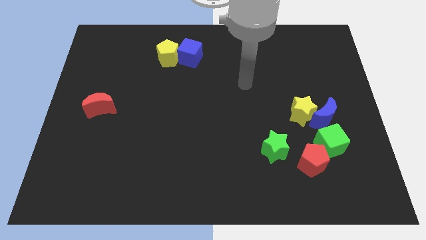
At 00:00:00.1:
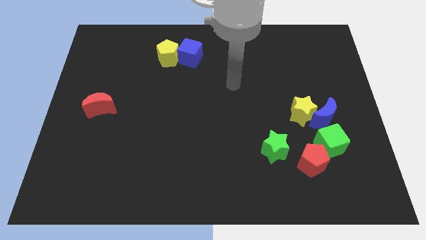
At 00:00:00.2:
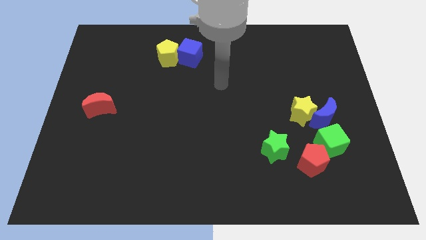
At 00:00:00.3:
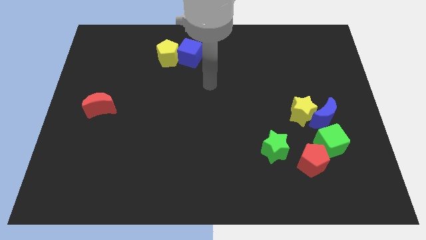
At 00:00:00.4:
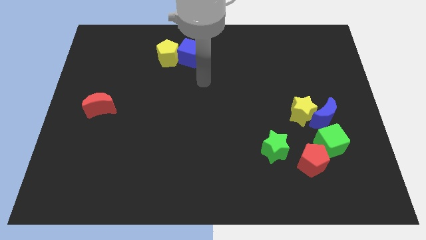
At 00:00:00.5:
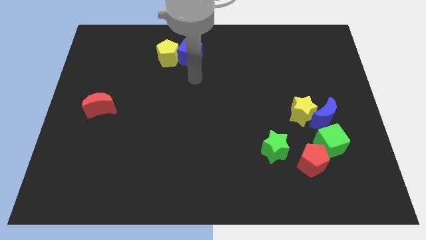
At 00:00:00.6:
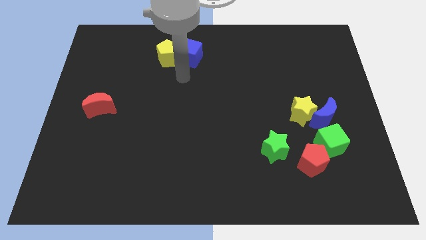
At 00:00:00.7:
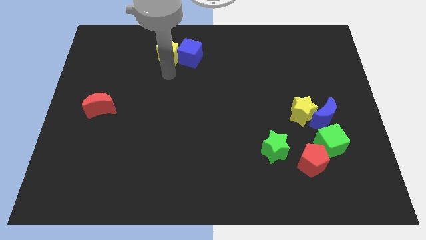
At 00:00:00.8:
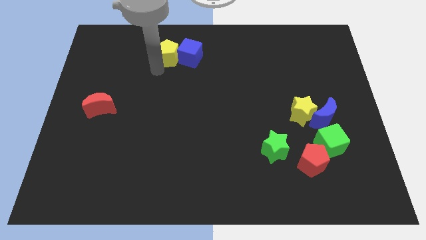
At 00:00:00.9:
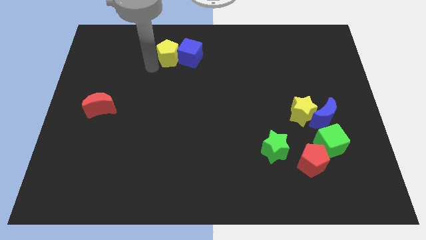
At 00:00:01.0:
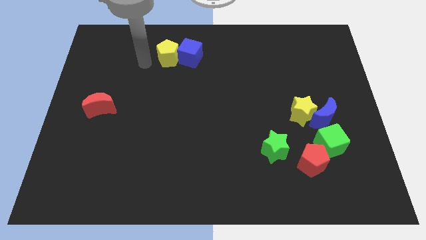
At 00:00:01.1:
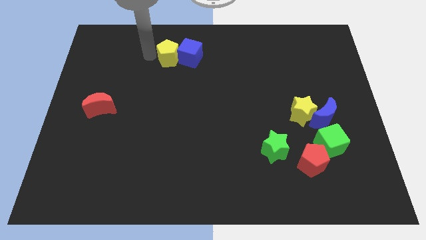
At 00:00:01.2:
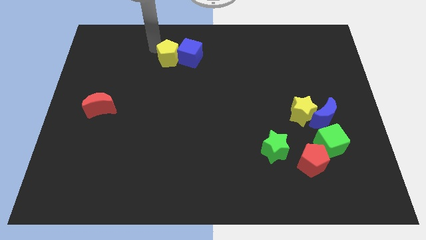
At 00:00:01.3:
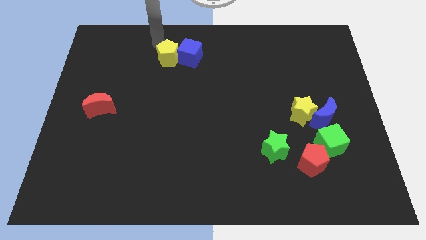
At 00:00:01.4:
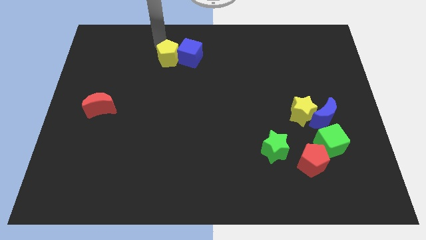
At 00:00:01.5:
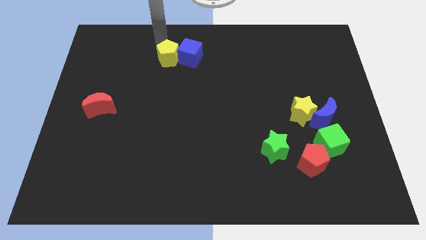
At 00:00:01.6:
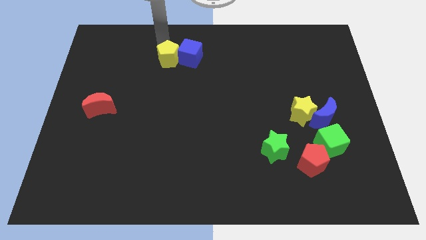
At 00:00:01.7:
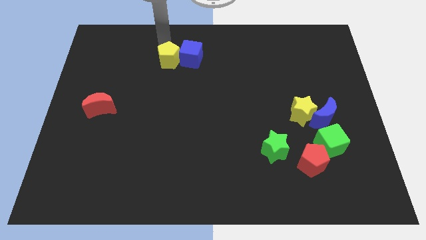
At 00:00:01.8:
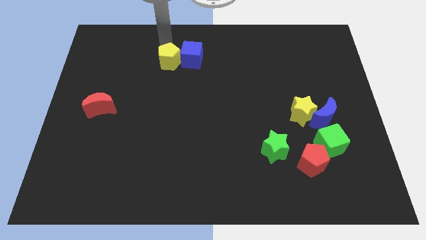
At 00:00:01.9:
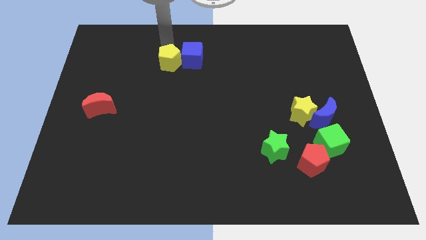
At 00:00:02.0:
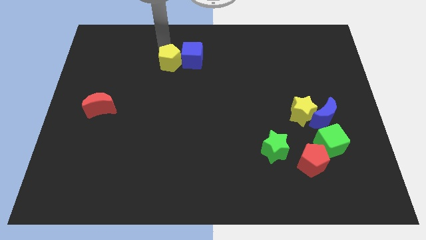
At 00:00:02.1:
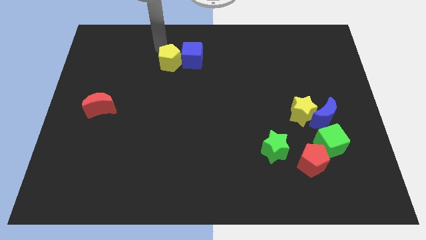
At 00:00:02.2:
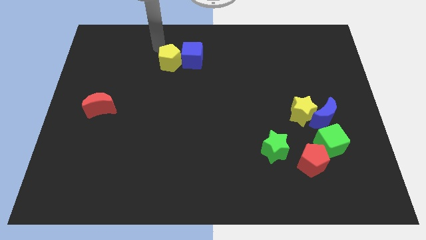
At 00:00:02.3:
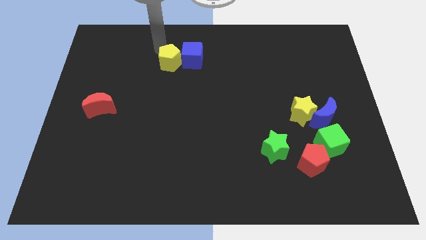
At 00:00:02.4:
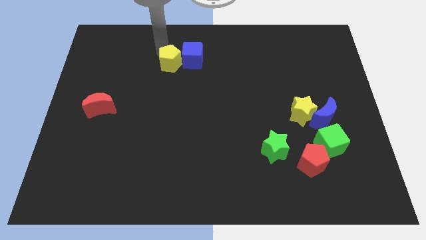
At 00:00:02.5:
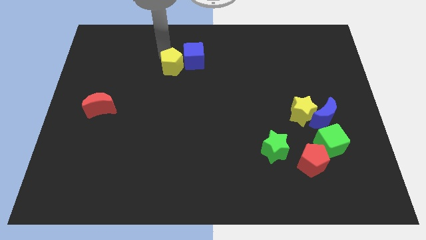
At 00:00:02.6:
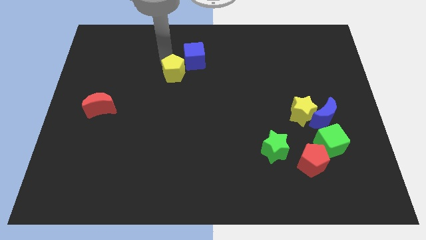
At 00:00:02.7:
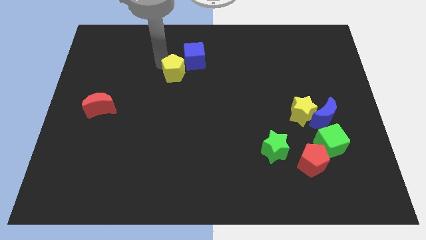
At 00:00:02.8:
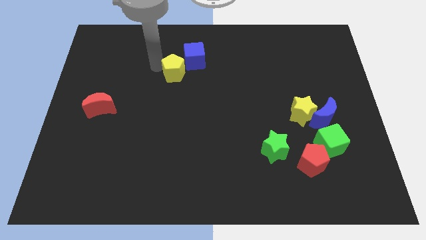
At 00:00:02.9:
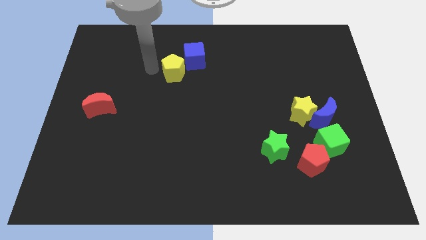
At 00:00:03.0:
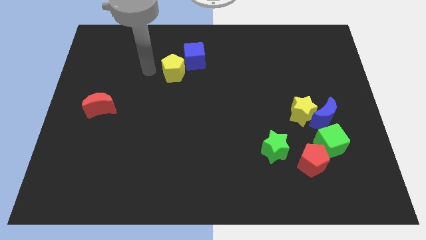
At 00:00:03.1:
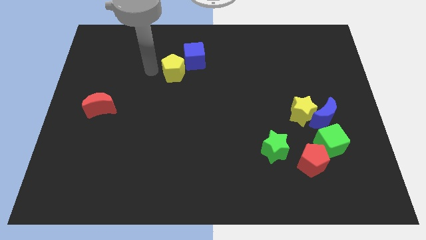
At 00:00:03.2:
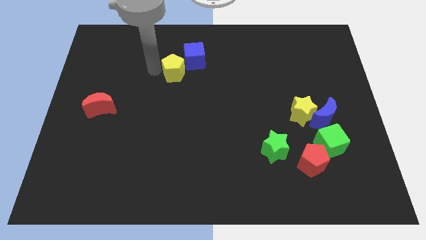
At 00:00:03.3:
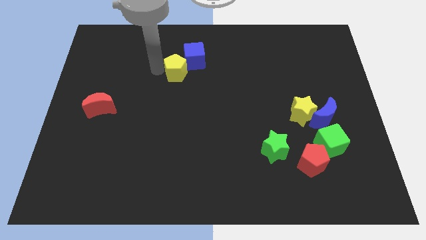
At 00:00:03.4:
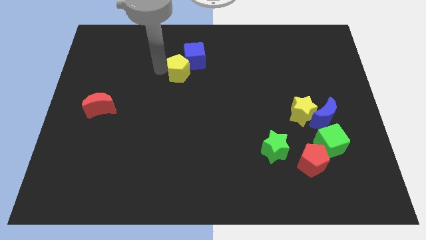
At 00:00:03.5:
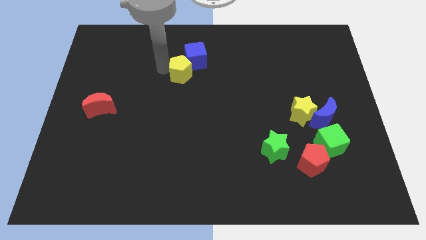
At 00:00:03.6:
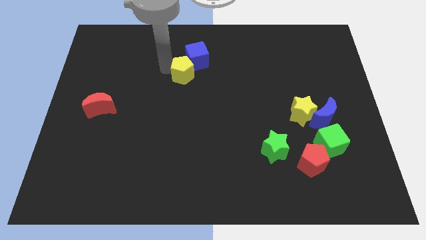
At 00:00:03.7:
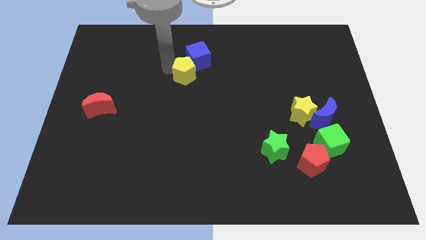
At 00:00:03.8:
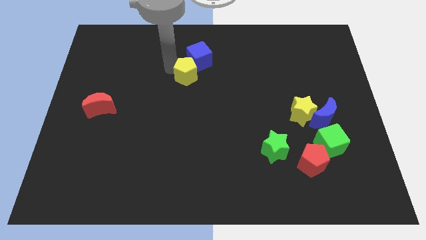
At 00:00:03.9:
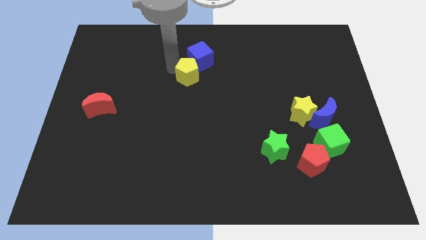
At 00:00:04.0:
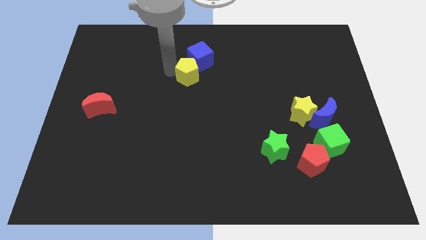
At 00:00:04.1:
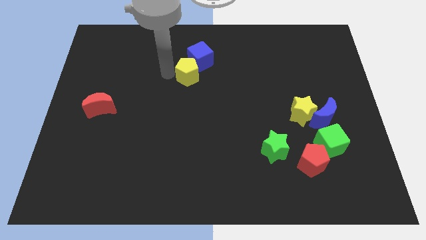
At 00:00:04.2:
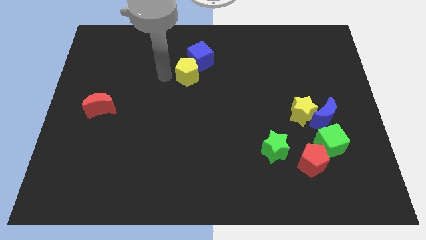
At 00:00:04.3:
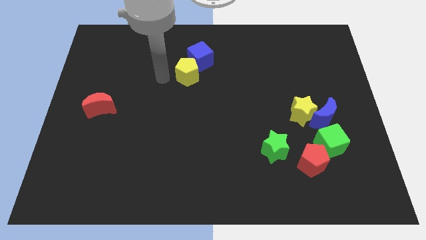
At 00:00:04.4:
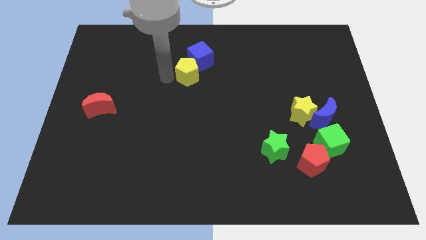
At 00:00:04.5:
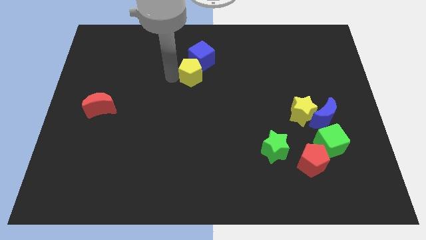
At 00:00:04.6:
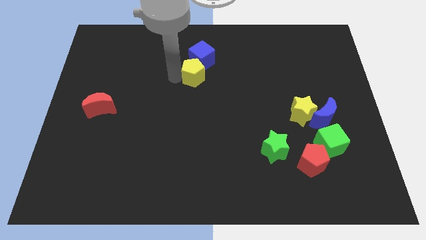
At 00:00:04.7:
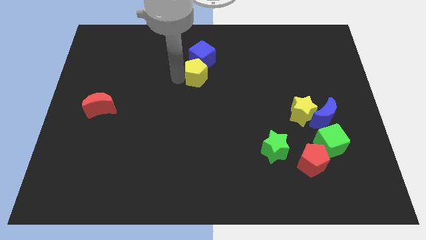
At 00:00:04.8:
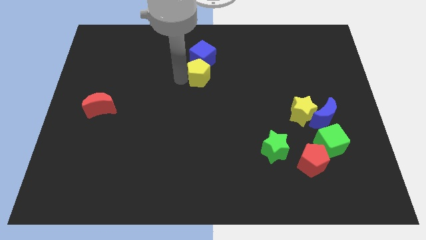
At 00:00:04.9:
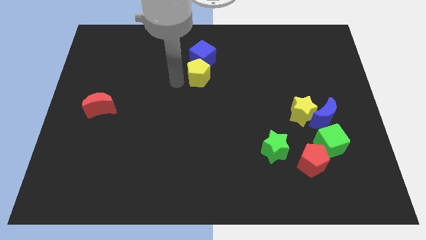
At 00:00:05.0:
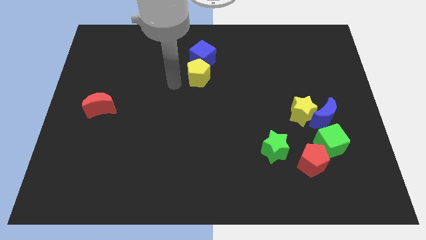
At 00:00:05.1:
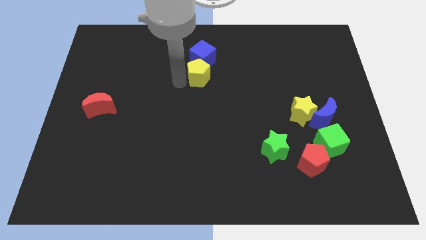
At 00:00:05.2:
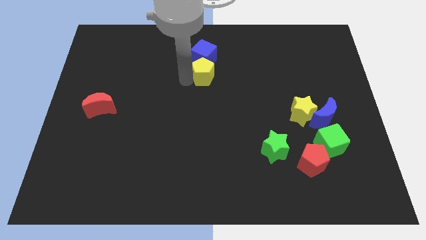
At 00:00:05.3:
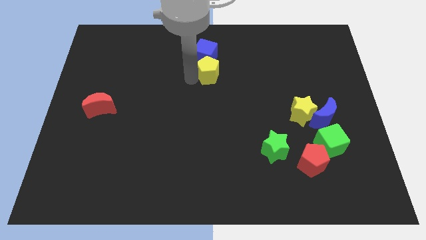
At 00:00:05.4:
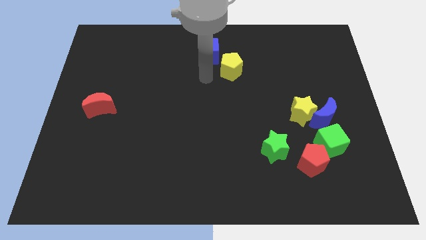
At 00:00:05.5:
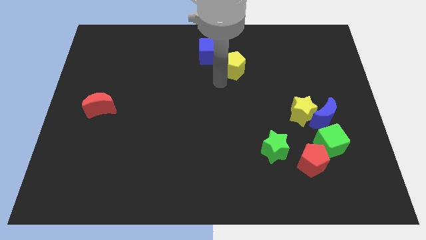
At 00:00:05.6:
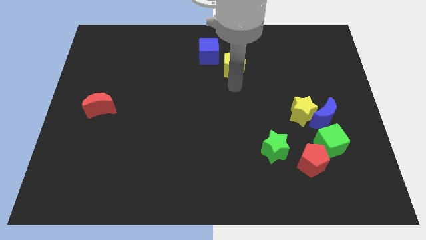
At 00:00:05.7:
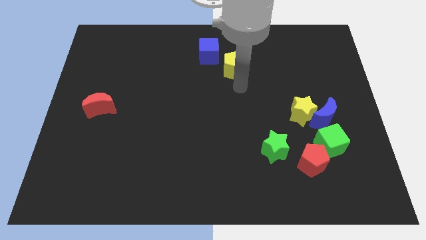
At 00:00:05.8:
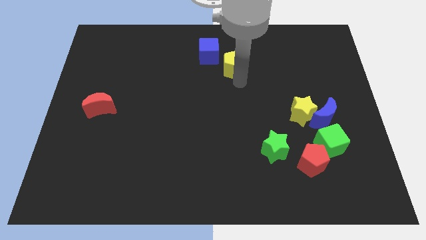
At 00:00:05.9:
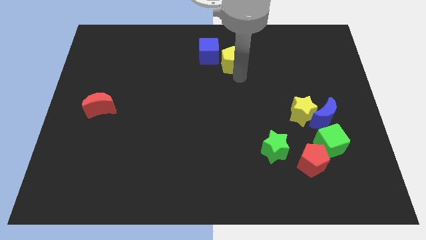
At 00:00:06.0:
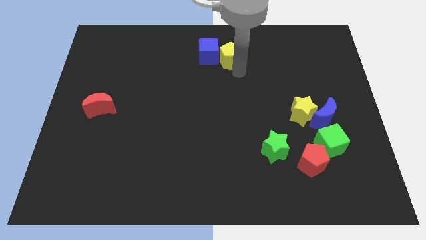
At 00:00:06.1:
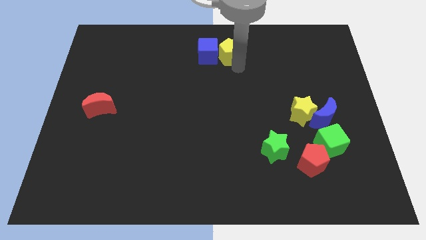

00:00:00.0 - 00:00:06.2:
push the yellow pentagon to the towards your base

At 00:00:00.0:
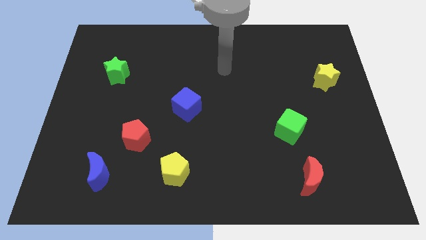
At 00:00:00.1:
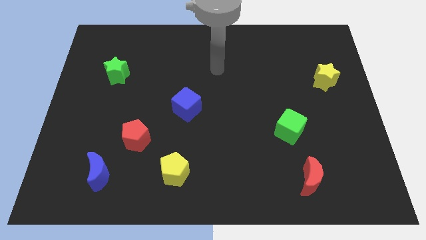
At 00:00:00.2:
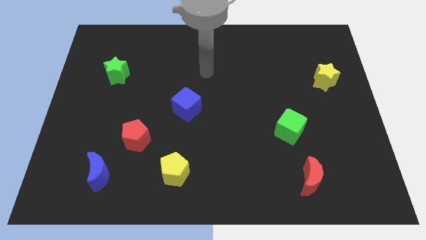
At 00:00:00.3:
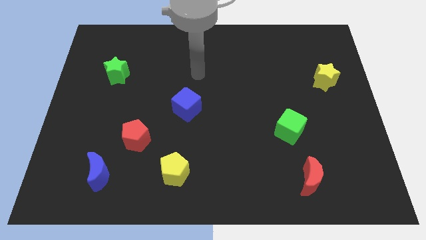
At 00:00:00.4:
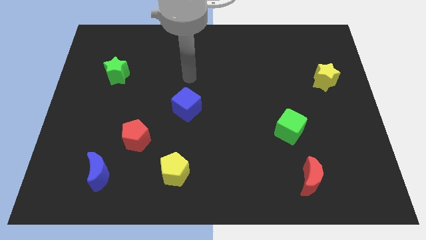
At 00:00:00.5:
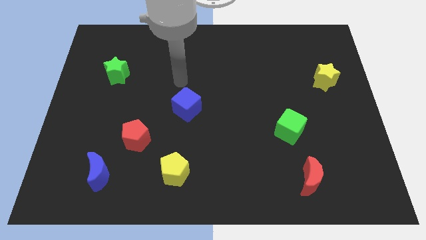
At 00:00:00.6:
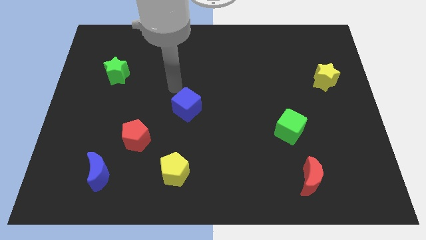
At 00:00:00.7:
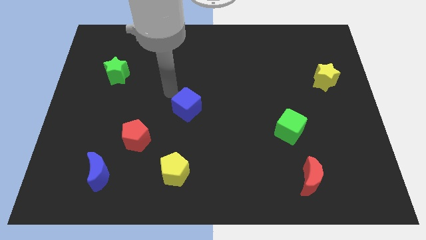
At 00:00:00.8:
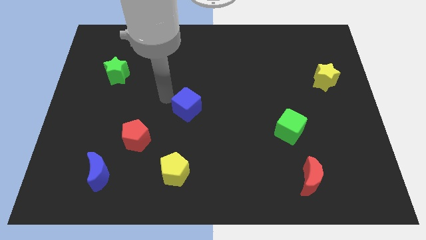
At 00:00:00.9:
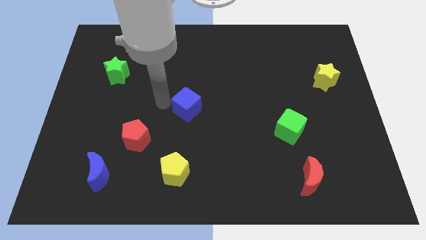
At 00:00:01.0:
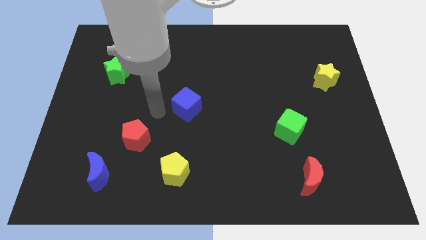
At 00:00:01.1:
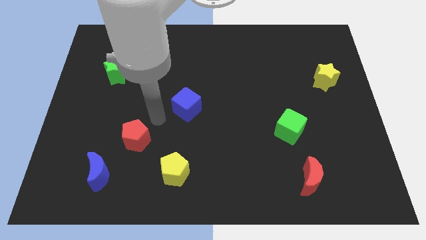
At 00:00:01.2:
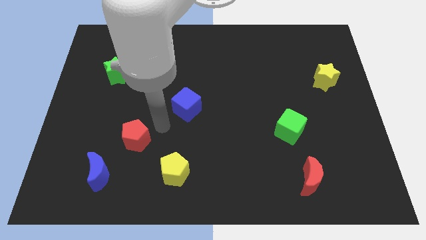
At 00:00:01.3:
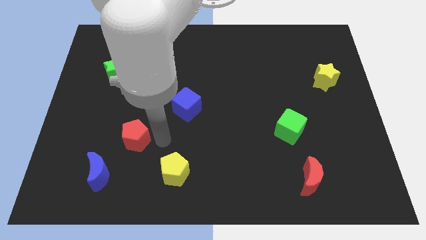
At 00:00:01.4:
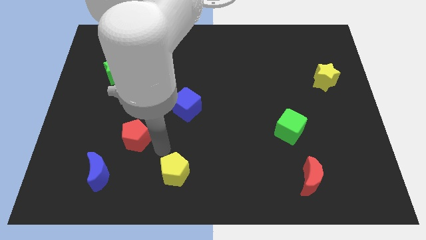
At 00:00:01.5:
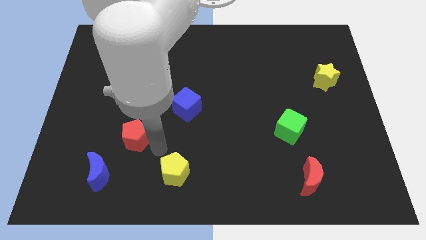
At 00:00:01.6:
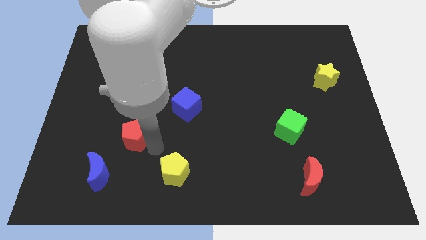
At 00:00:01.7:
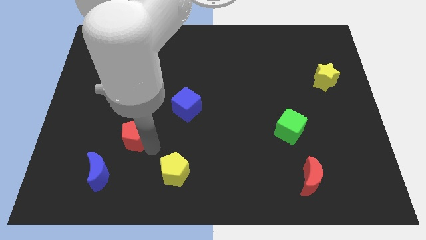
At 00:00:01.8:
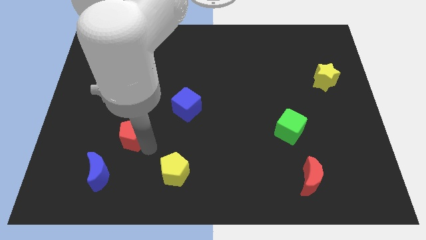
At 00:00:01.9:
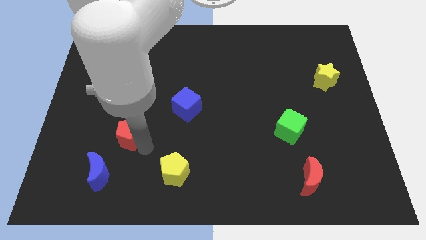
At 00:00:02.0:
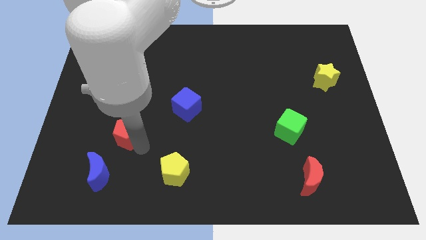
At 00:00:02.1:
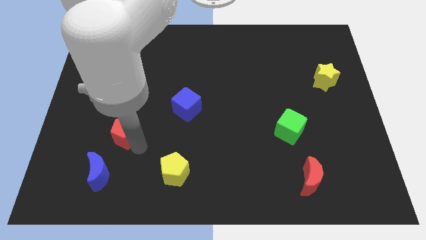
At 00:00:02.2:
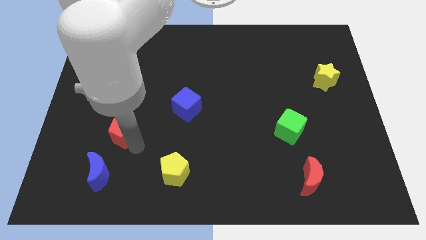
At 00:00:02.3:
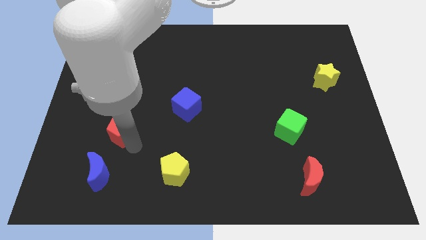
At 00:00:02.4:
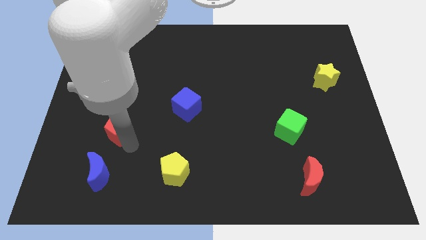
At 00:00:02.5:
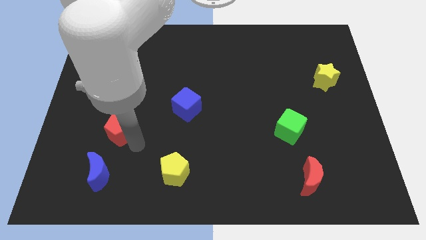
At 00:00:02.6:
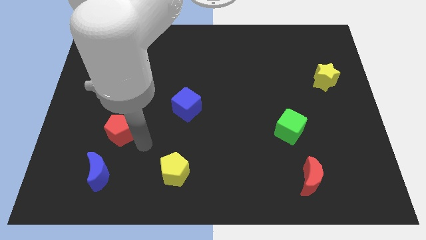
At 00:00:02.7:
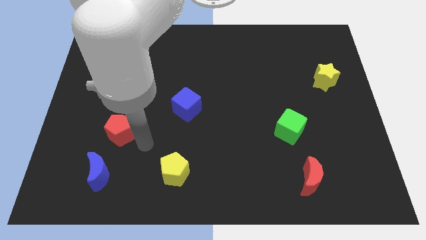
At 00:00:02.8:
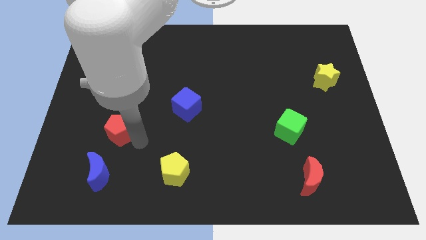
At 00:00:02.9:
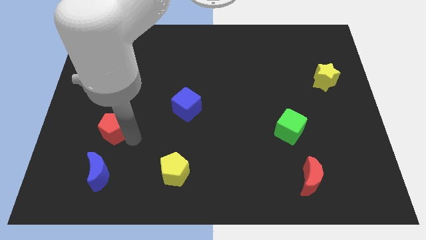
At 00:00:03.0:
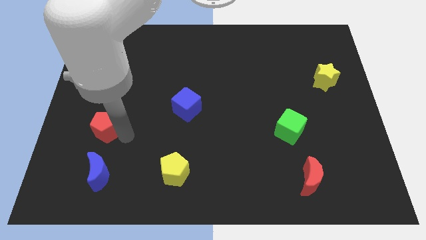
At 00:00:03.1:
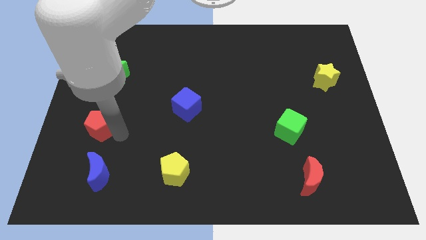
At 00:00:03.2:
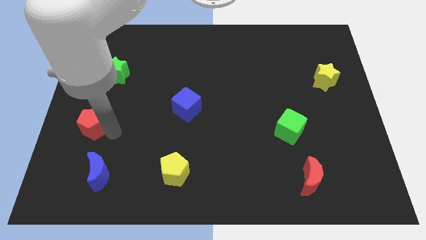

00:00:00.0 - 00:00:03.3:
move the red pentagon to the center left
